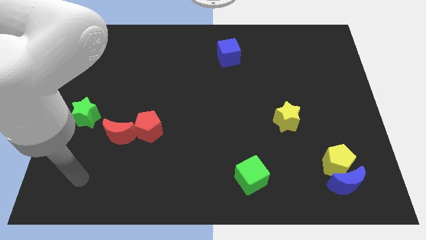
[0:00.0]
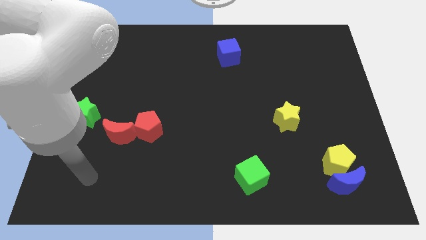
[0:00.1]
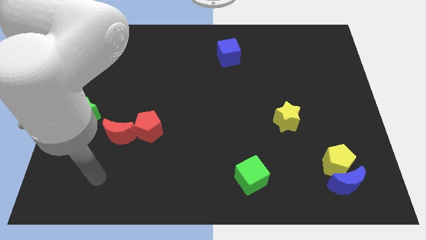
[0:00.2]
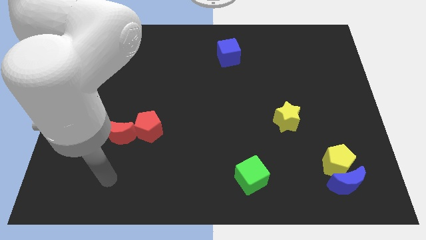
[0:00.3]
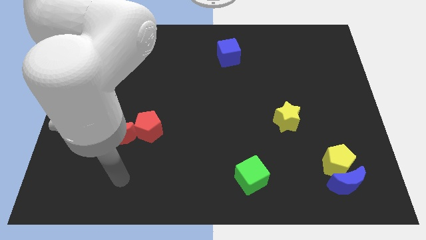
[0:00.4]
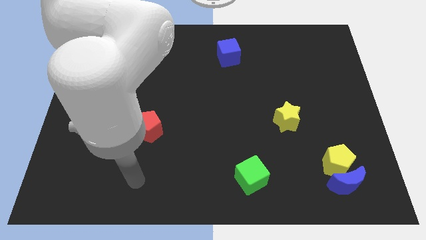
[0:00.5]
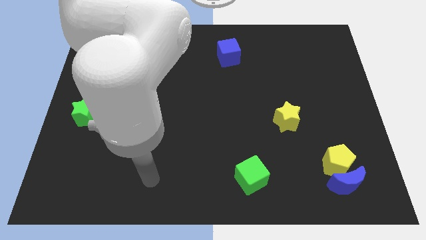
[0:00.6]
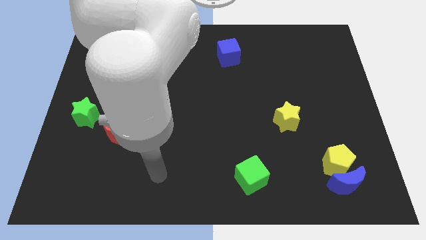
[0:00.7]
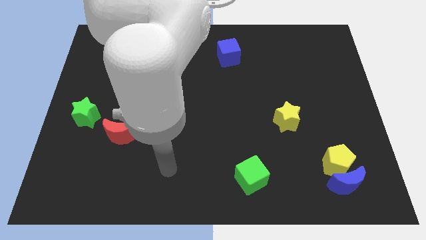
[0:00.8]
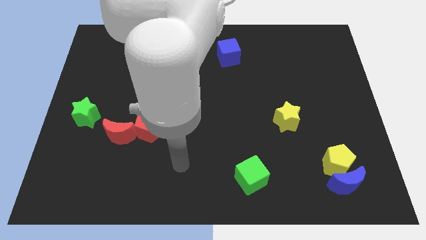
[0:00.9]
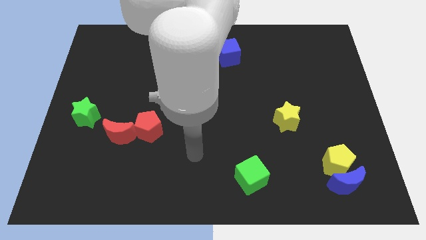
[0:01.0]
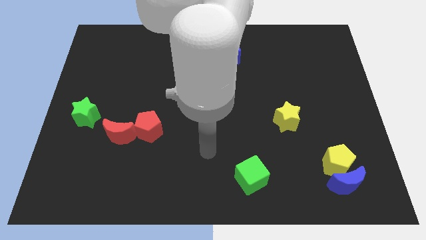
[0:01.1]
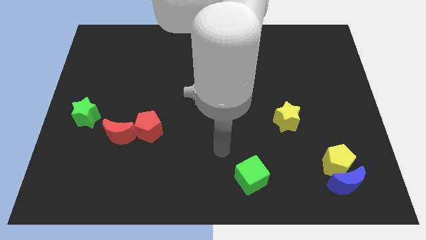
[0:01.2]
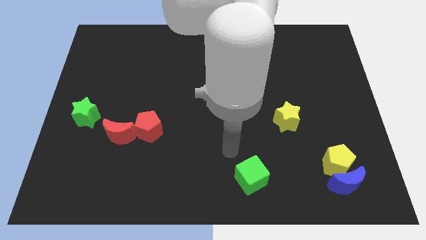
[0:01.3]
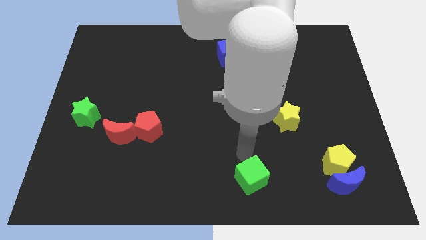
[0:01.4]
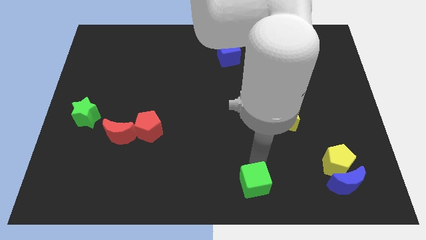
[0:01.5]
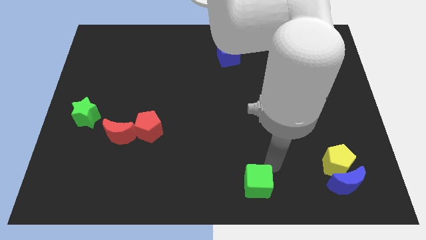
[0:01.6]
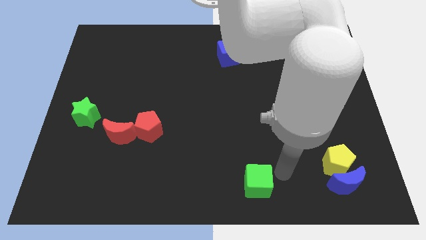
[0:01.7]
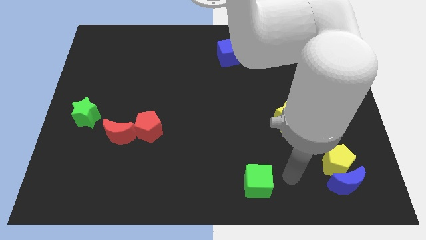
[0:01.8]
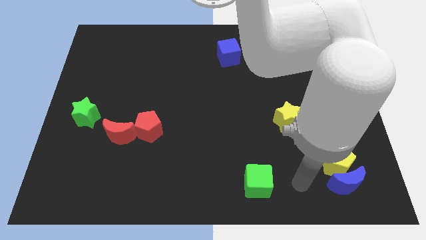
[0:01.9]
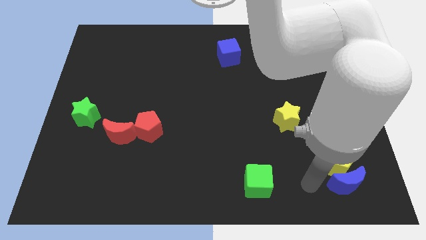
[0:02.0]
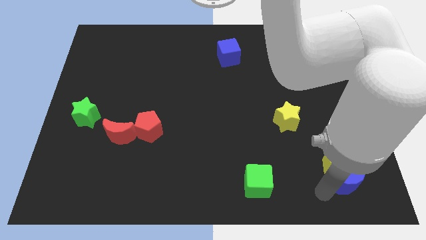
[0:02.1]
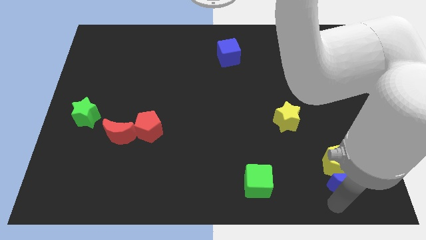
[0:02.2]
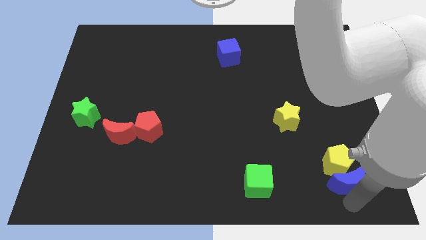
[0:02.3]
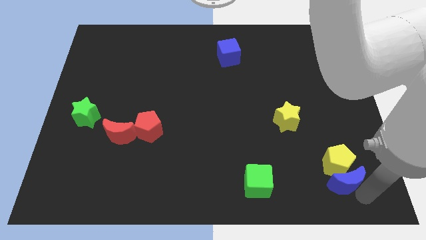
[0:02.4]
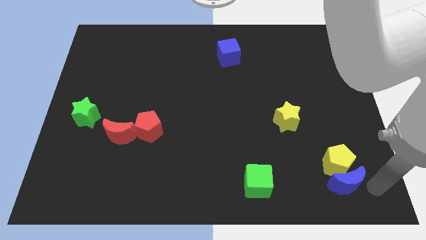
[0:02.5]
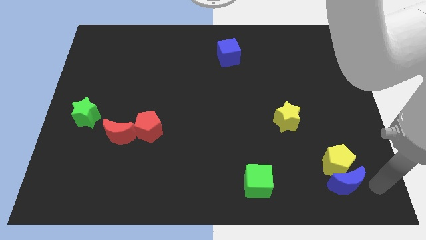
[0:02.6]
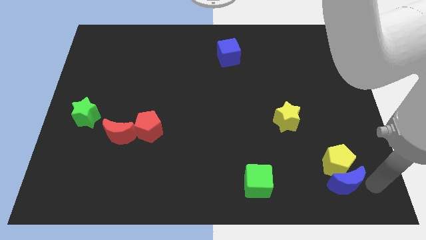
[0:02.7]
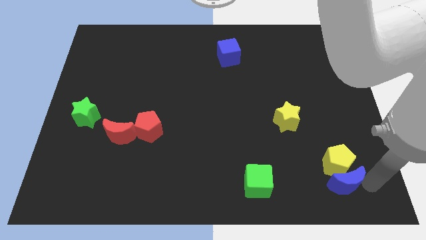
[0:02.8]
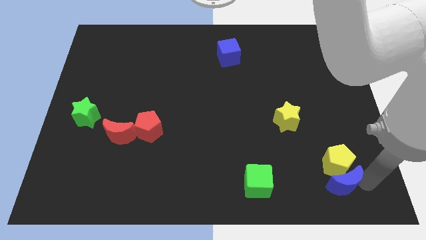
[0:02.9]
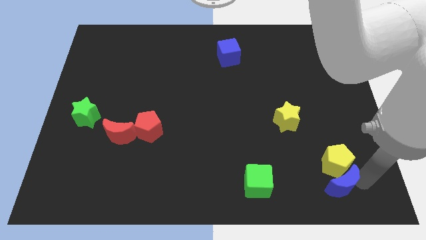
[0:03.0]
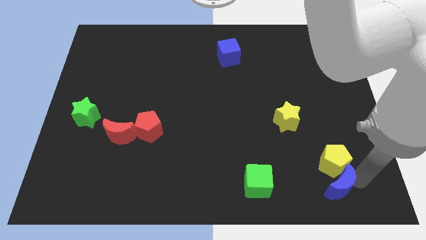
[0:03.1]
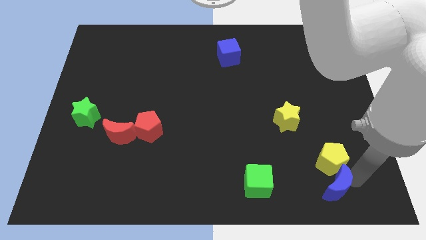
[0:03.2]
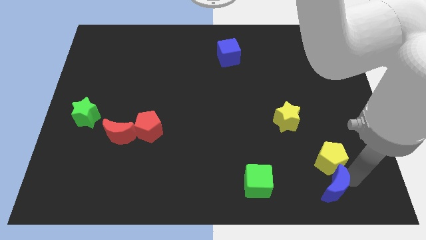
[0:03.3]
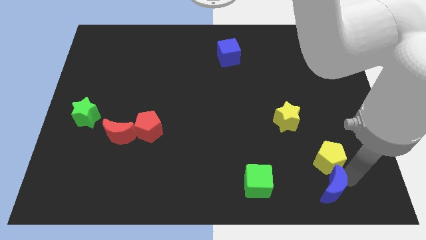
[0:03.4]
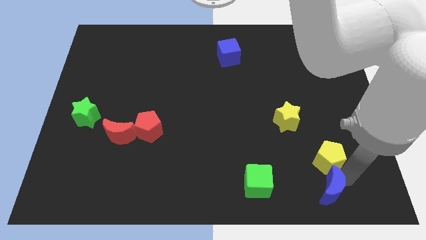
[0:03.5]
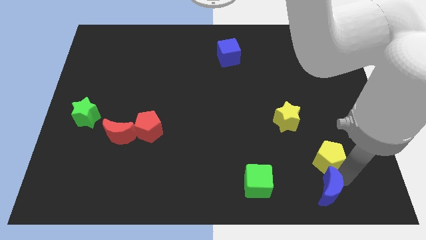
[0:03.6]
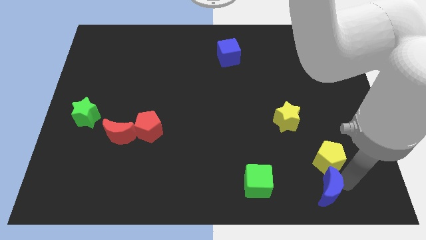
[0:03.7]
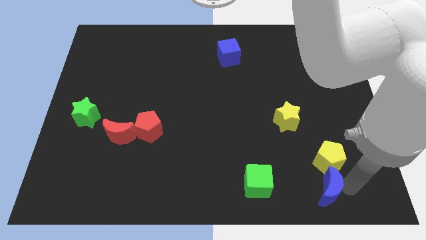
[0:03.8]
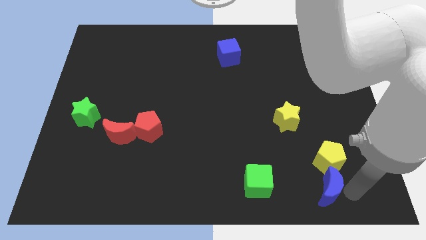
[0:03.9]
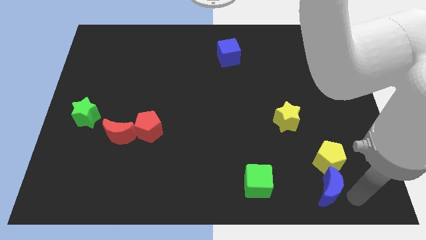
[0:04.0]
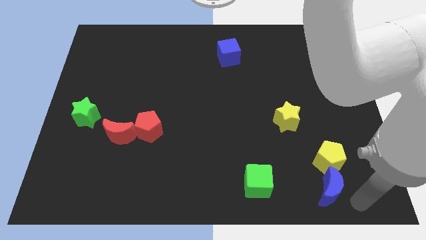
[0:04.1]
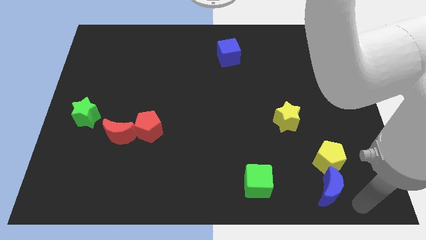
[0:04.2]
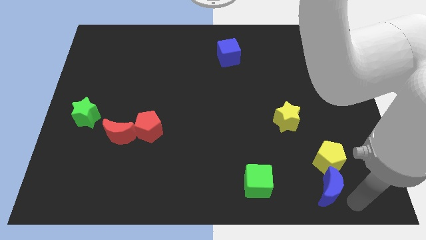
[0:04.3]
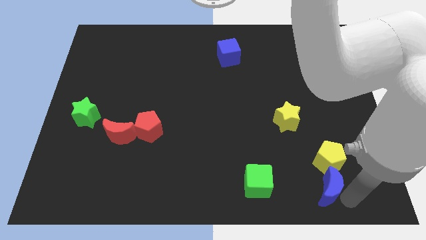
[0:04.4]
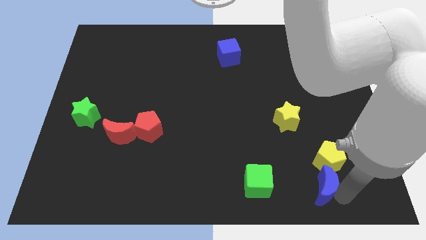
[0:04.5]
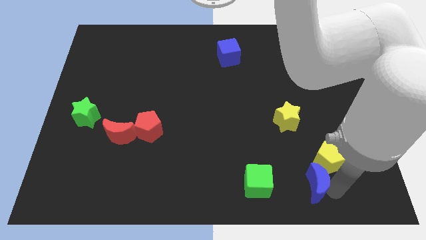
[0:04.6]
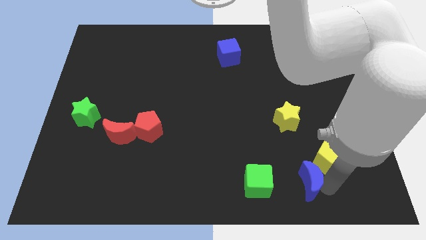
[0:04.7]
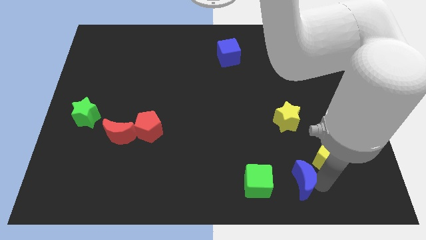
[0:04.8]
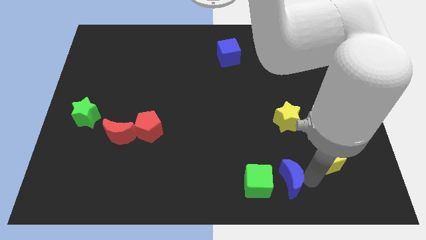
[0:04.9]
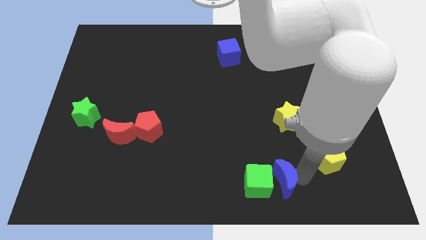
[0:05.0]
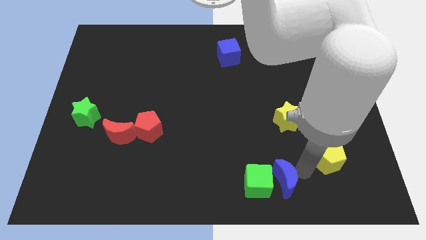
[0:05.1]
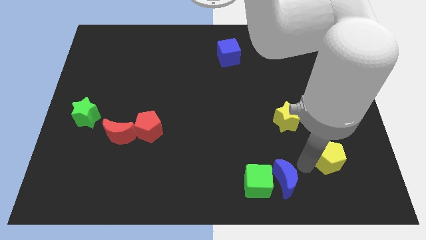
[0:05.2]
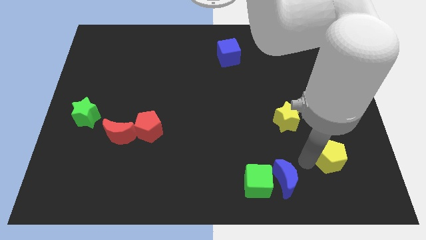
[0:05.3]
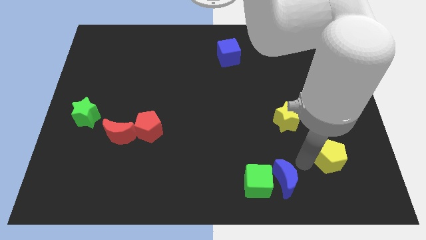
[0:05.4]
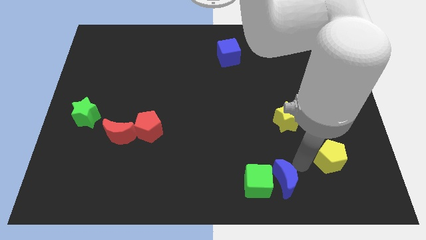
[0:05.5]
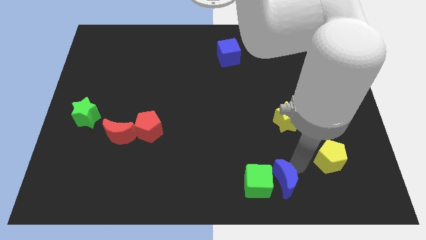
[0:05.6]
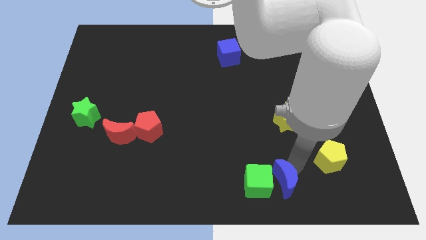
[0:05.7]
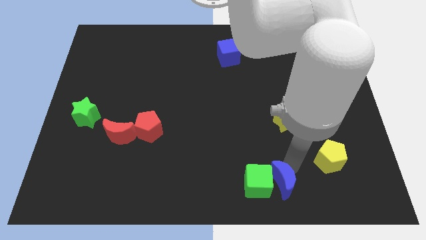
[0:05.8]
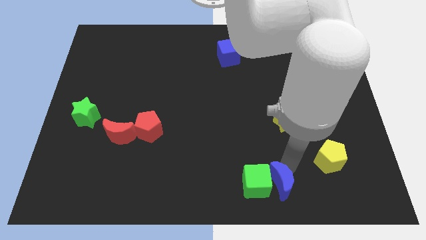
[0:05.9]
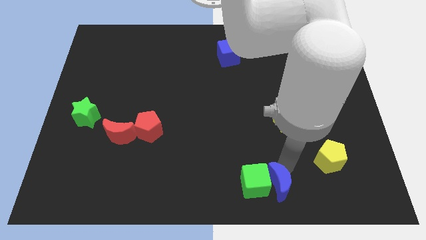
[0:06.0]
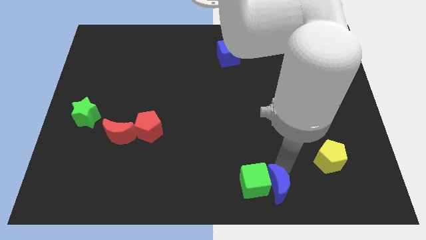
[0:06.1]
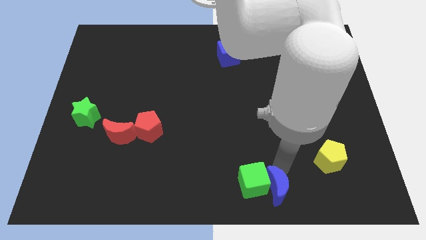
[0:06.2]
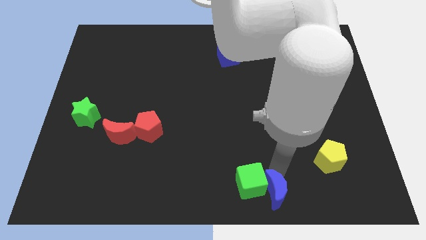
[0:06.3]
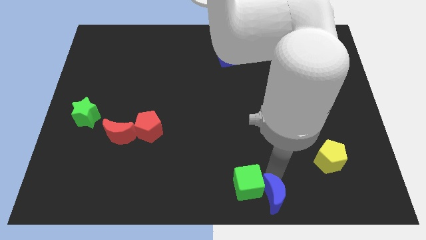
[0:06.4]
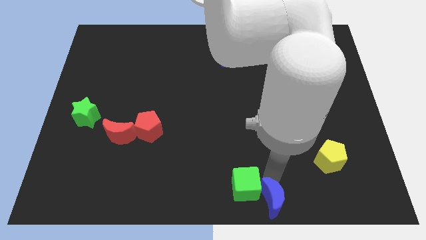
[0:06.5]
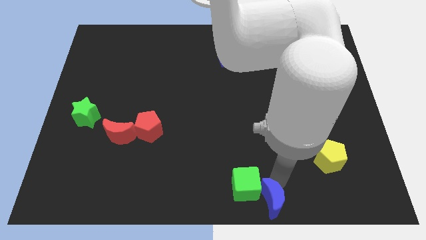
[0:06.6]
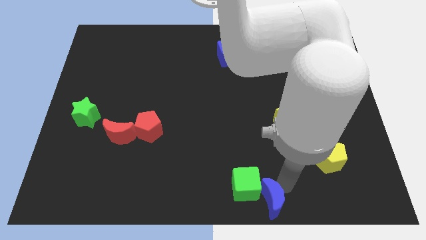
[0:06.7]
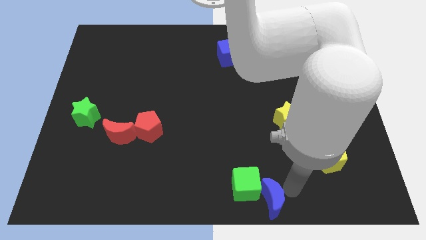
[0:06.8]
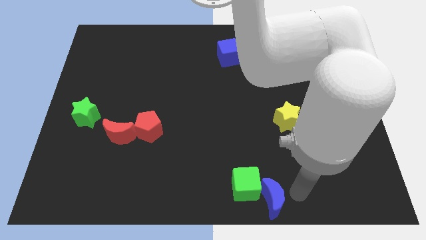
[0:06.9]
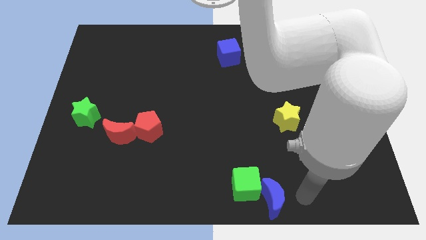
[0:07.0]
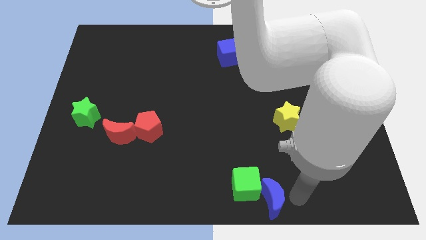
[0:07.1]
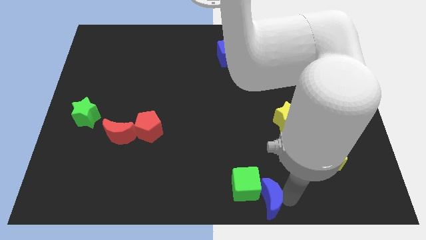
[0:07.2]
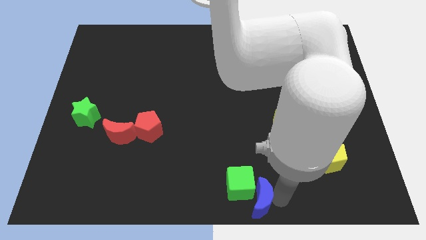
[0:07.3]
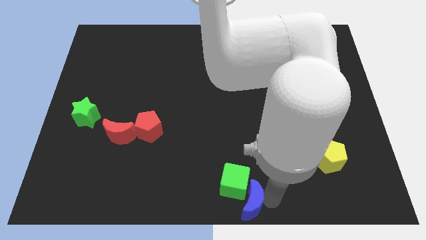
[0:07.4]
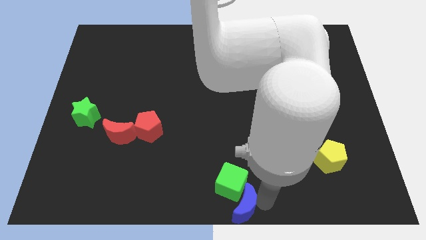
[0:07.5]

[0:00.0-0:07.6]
move the blue moon left

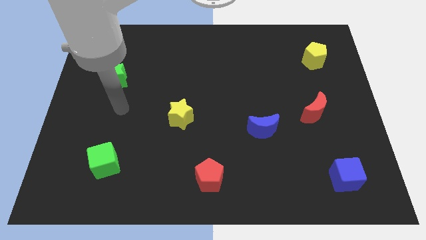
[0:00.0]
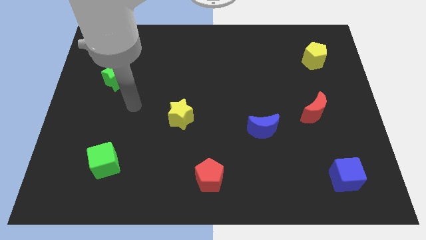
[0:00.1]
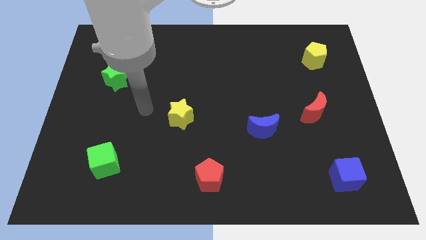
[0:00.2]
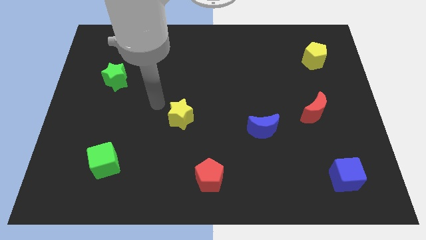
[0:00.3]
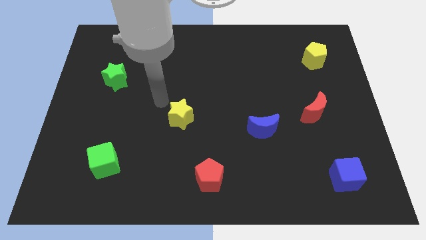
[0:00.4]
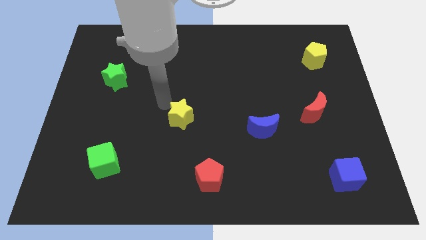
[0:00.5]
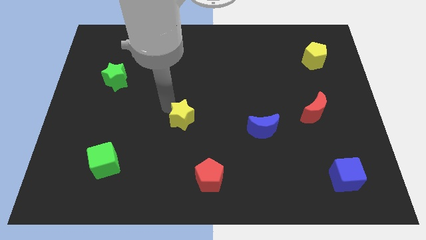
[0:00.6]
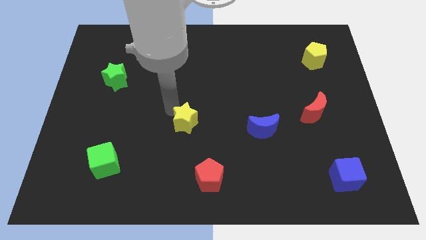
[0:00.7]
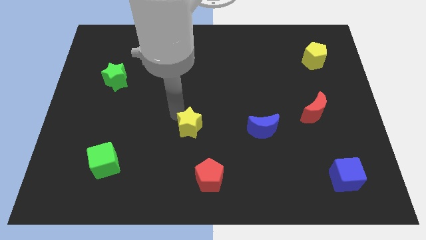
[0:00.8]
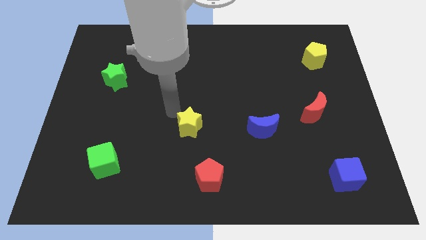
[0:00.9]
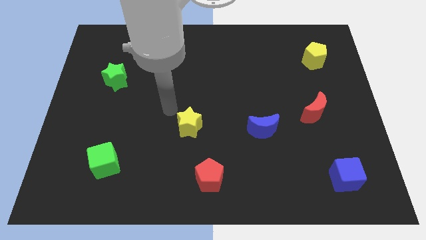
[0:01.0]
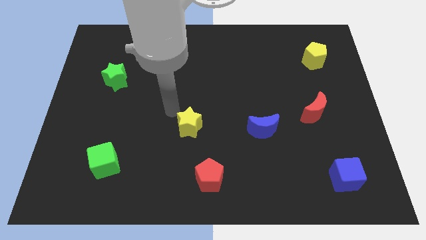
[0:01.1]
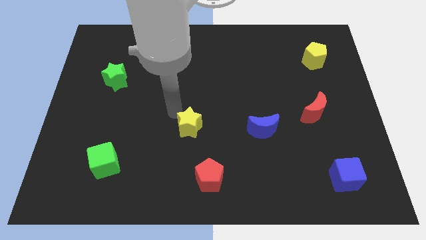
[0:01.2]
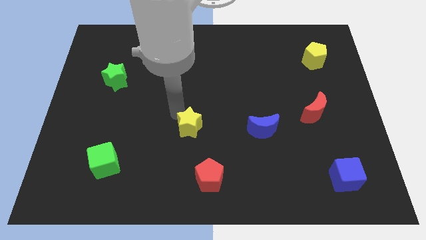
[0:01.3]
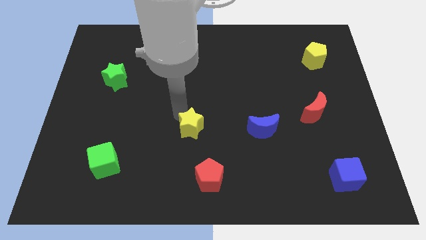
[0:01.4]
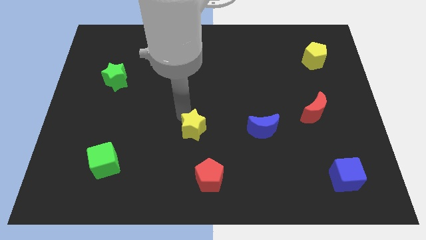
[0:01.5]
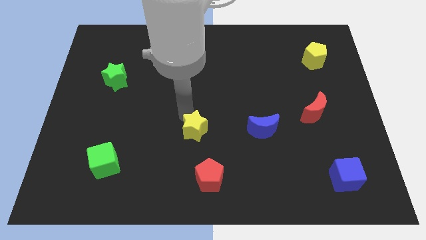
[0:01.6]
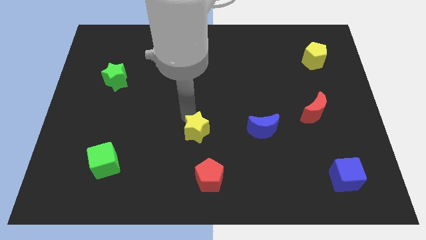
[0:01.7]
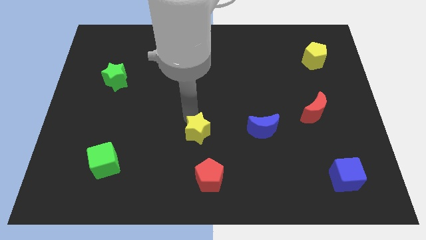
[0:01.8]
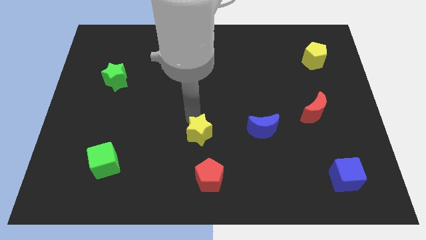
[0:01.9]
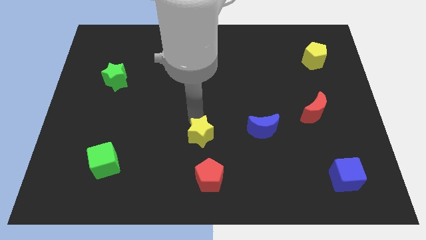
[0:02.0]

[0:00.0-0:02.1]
slide the yellow star downwards and right diagonally a little
